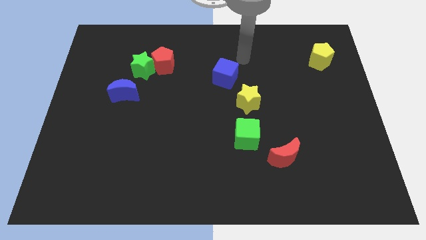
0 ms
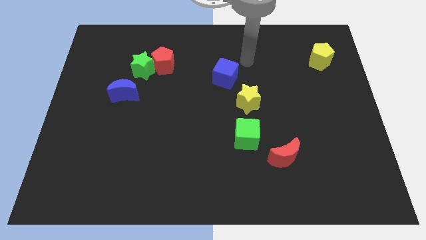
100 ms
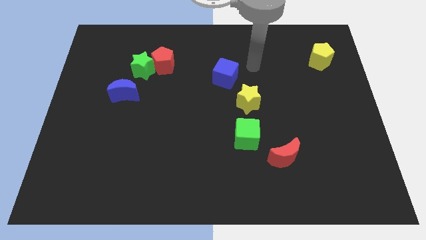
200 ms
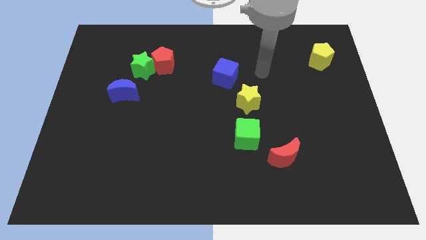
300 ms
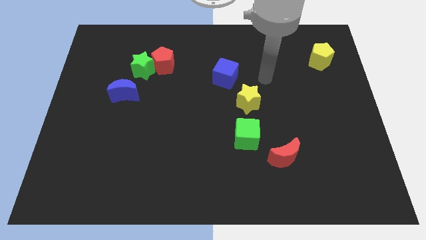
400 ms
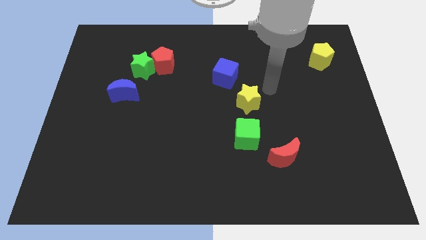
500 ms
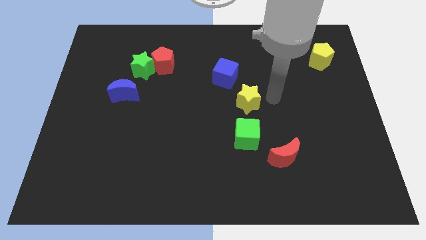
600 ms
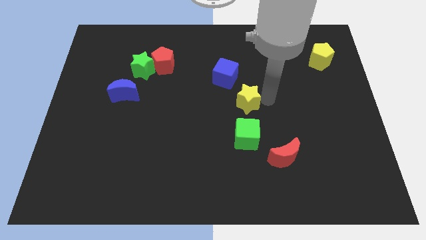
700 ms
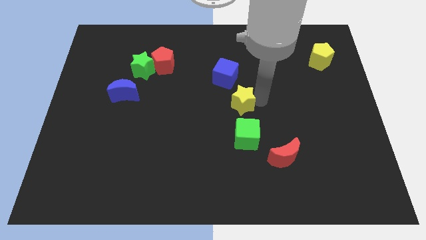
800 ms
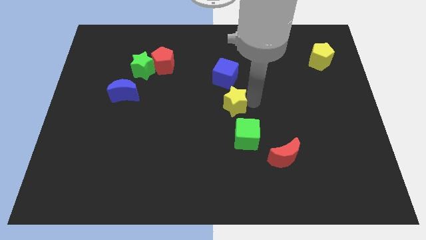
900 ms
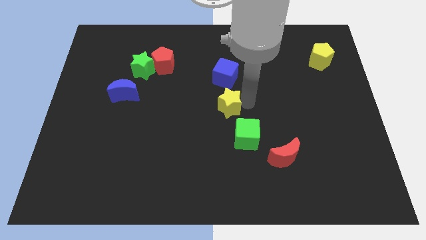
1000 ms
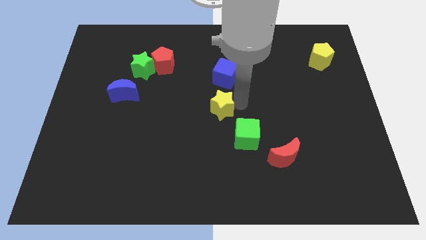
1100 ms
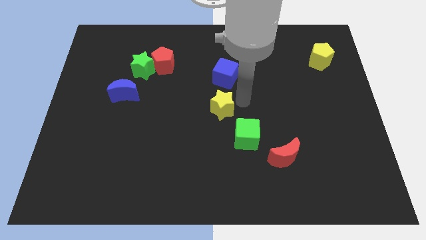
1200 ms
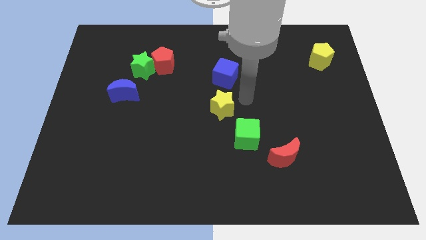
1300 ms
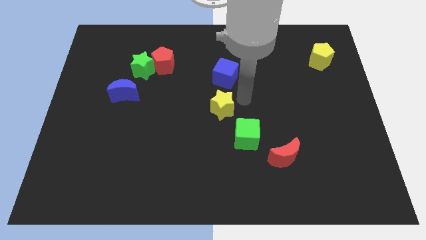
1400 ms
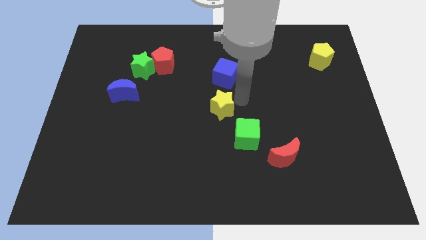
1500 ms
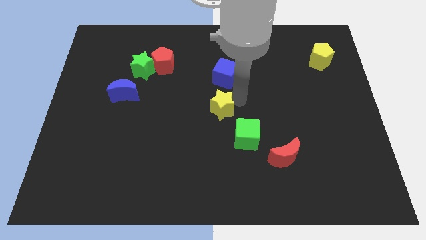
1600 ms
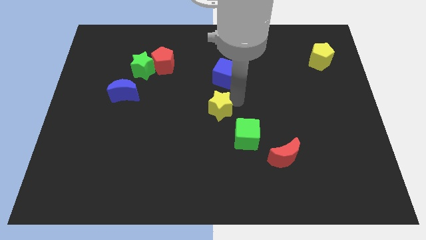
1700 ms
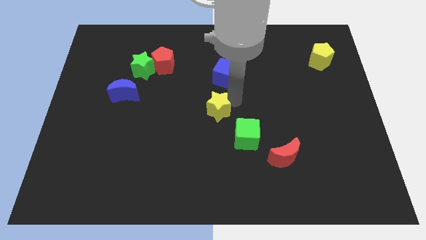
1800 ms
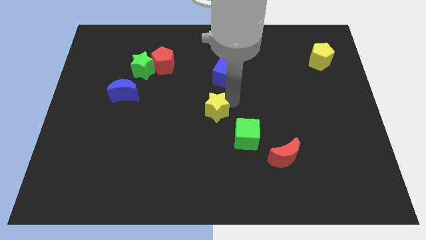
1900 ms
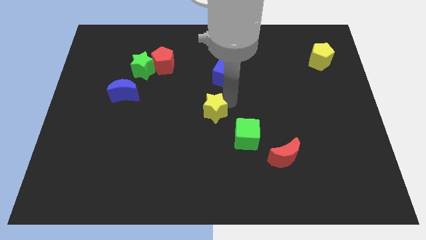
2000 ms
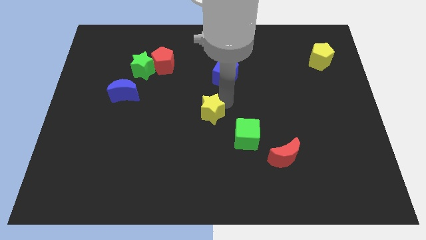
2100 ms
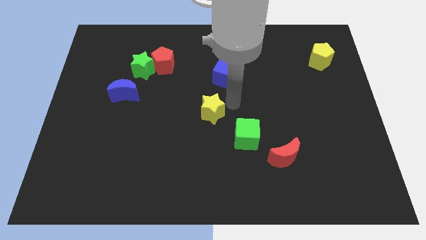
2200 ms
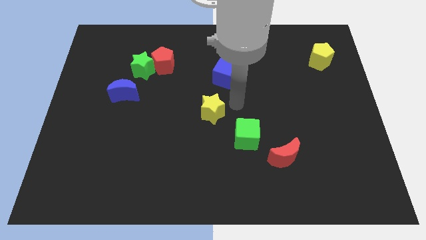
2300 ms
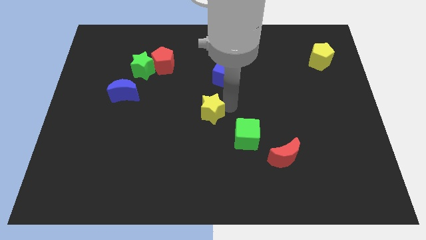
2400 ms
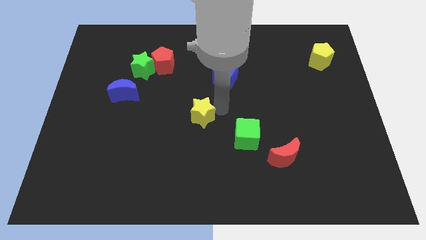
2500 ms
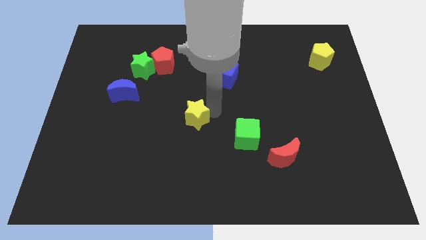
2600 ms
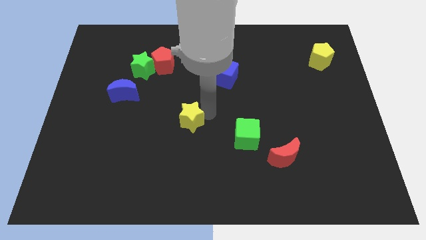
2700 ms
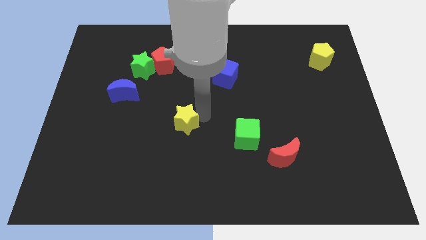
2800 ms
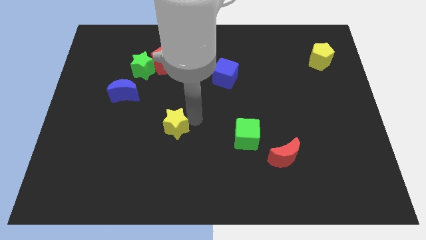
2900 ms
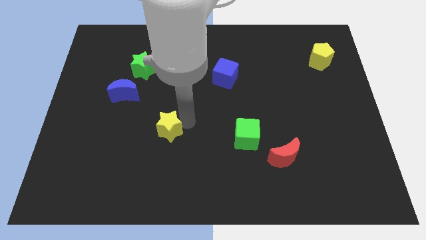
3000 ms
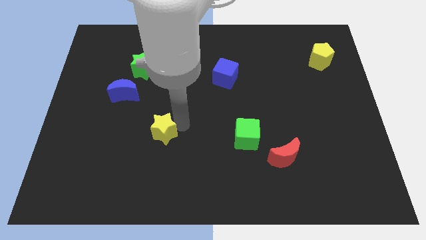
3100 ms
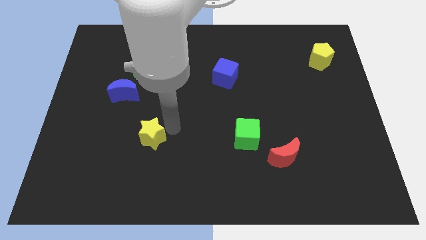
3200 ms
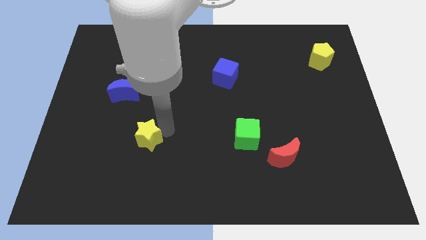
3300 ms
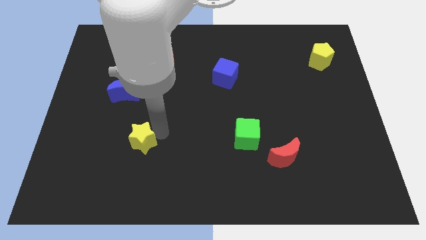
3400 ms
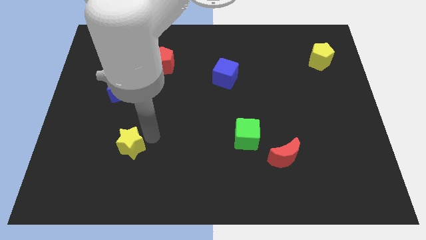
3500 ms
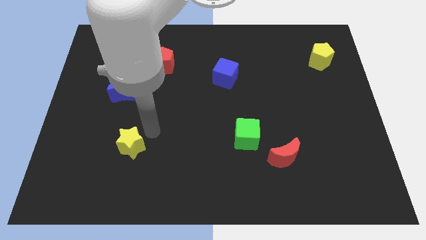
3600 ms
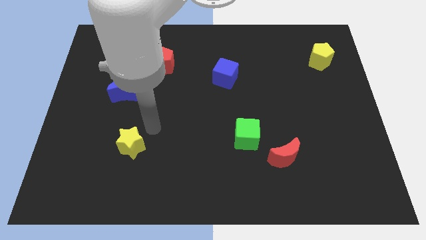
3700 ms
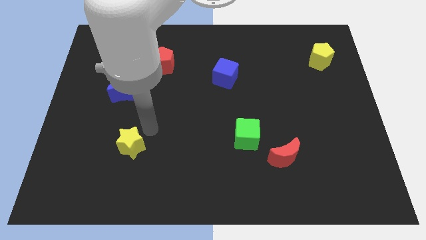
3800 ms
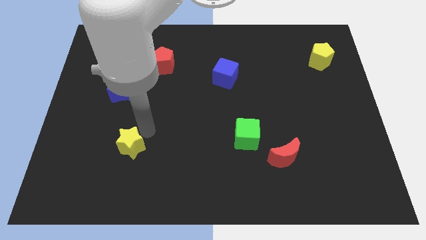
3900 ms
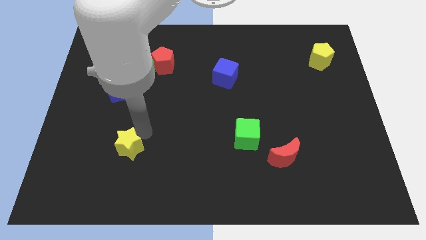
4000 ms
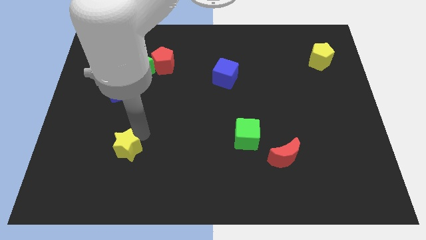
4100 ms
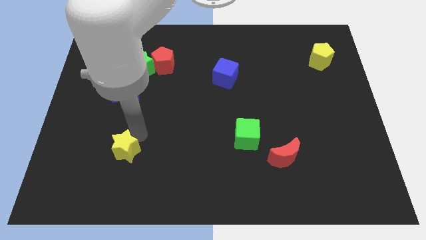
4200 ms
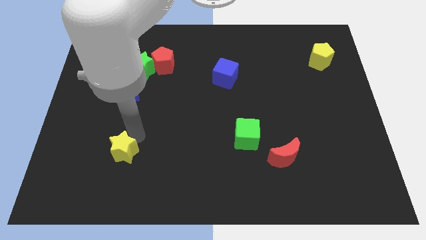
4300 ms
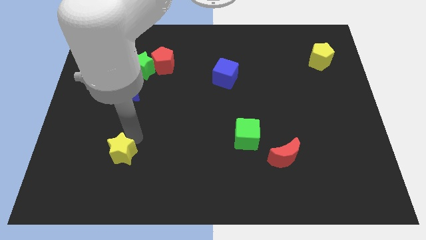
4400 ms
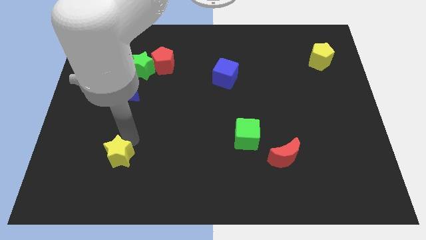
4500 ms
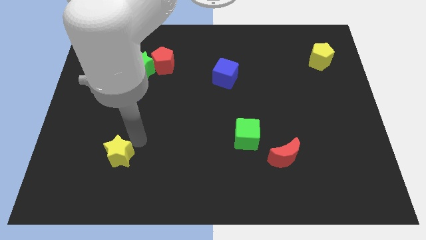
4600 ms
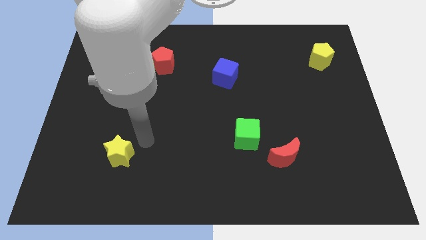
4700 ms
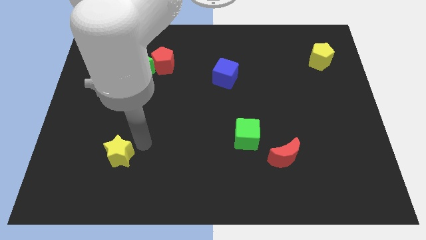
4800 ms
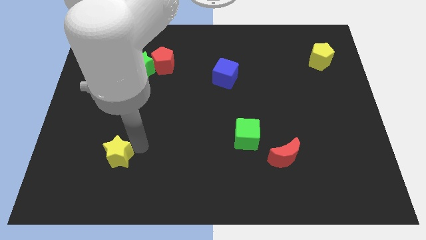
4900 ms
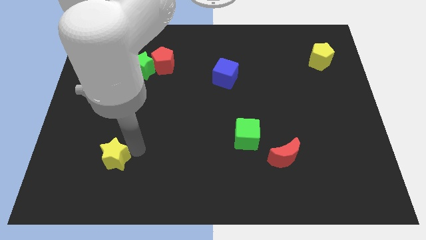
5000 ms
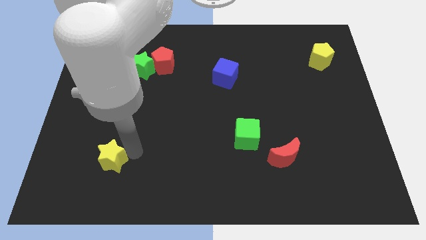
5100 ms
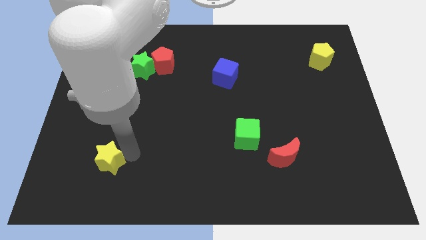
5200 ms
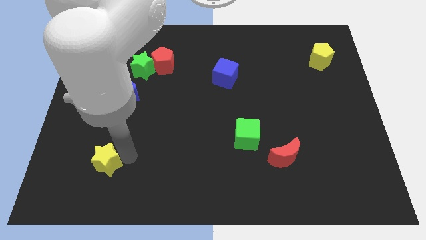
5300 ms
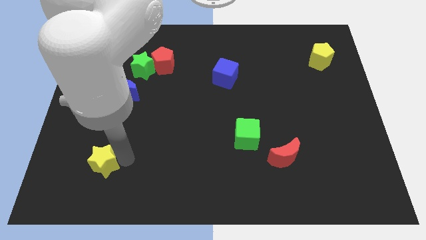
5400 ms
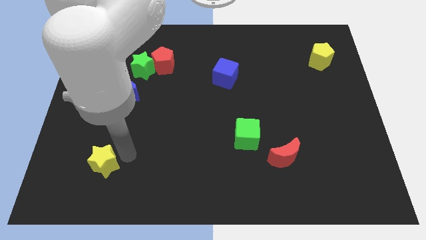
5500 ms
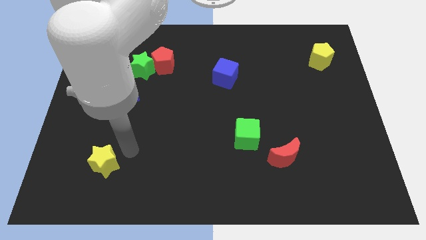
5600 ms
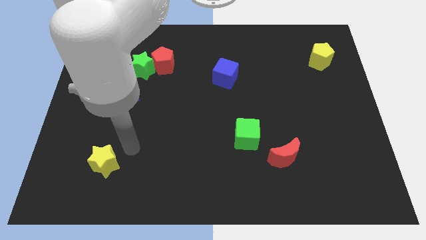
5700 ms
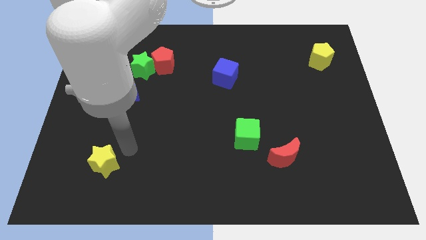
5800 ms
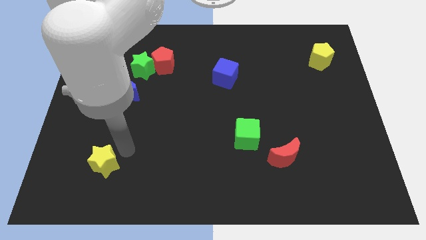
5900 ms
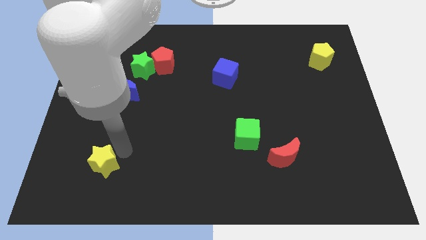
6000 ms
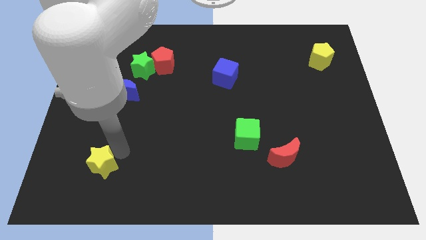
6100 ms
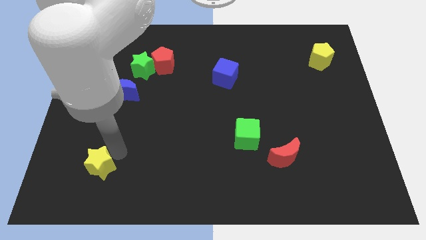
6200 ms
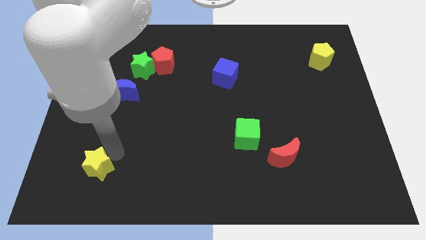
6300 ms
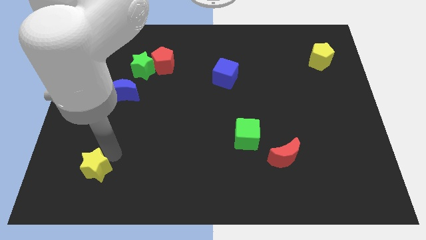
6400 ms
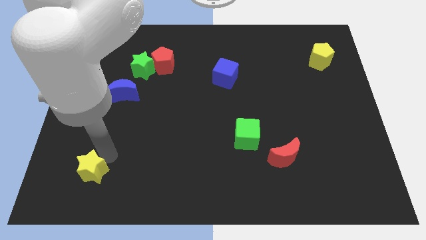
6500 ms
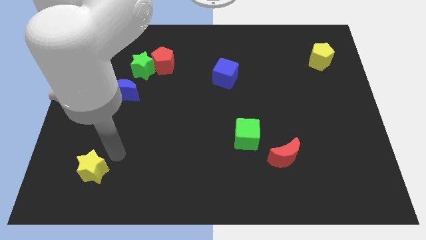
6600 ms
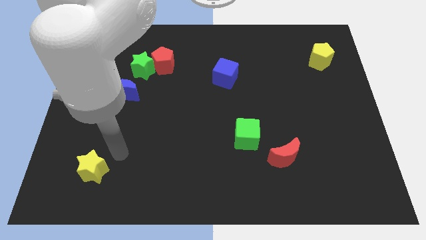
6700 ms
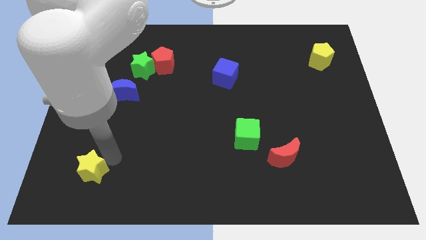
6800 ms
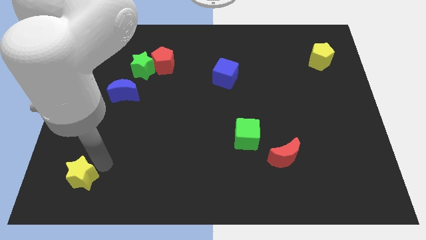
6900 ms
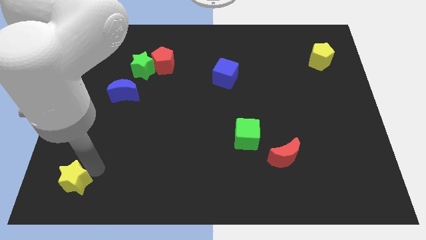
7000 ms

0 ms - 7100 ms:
move the yellow star to the bottom left
